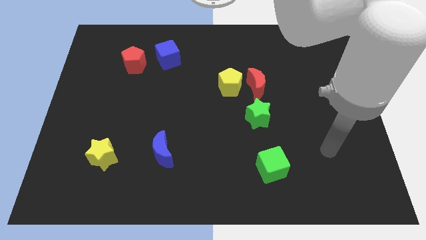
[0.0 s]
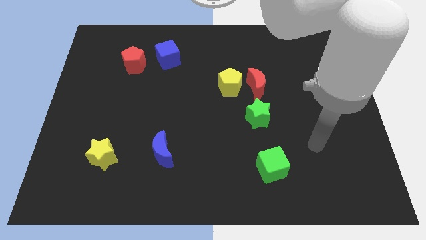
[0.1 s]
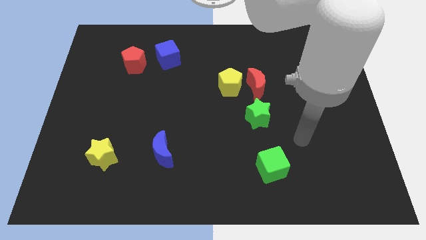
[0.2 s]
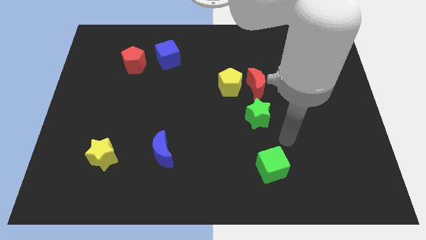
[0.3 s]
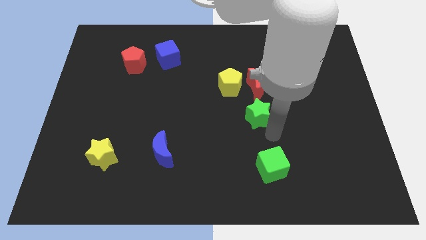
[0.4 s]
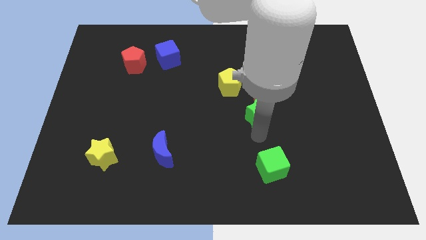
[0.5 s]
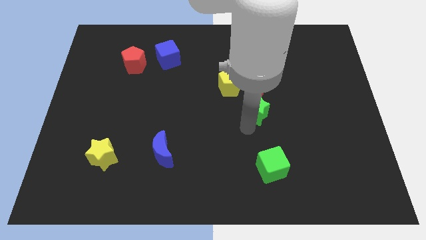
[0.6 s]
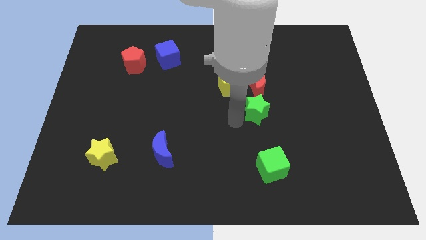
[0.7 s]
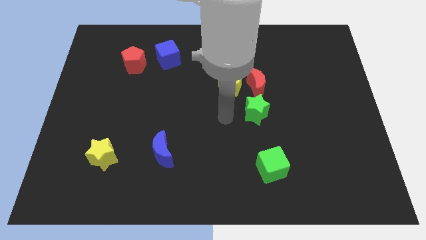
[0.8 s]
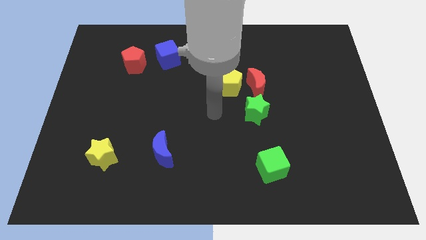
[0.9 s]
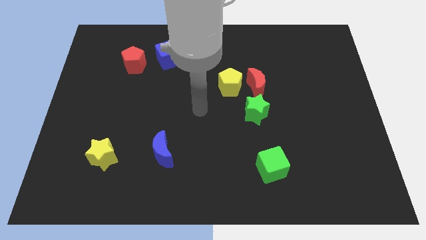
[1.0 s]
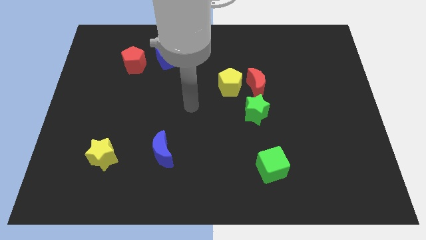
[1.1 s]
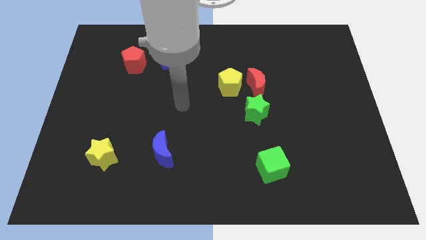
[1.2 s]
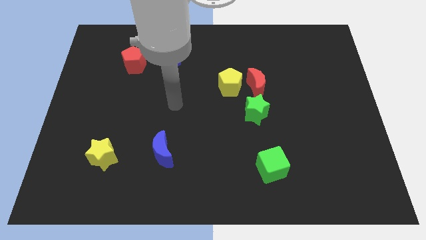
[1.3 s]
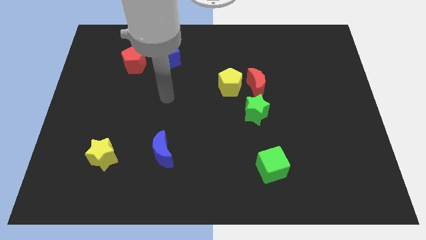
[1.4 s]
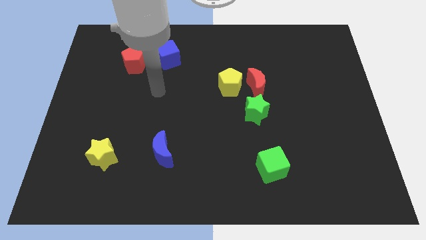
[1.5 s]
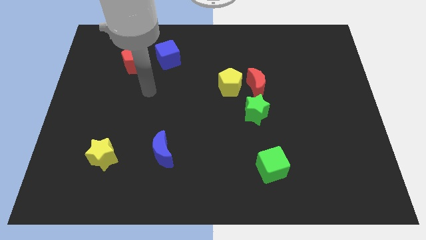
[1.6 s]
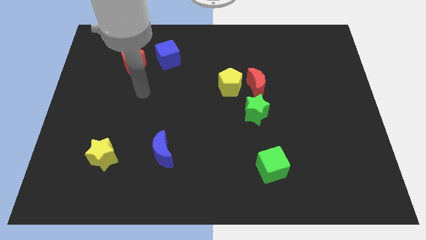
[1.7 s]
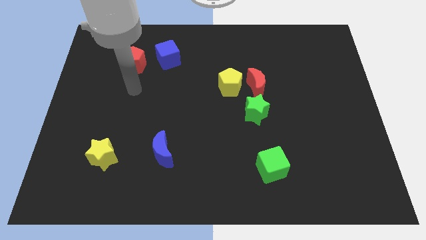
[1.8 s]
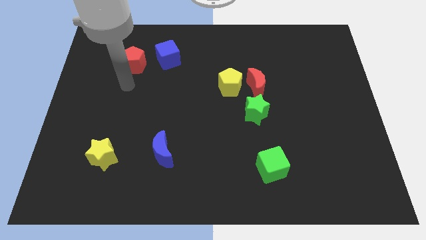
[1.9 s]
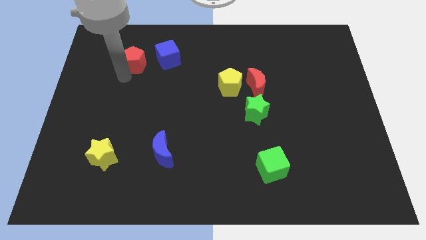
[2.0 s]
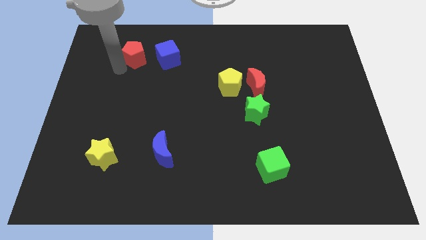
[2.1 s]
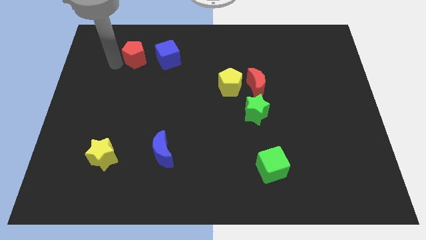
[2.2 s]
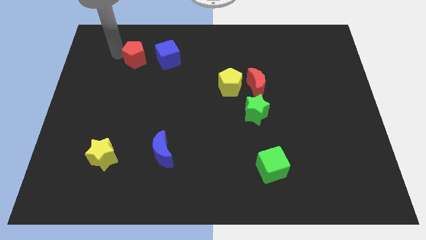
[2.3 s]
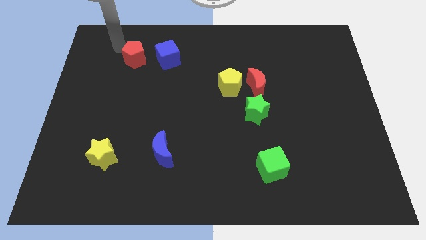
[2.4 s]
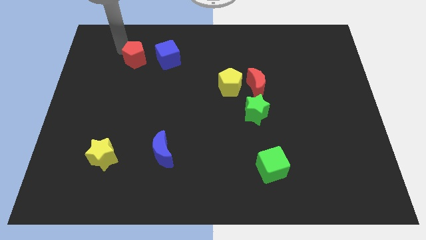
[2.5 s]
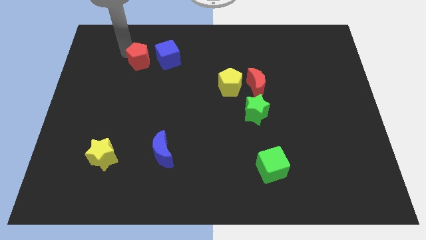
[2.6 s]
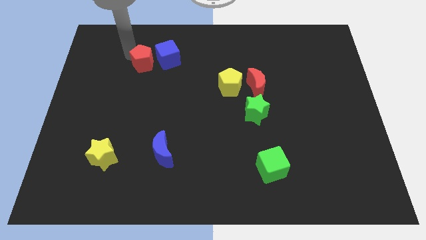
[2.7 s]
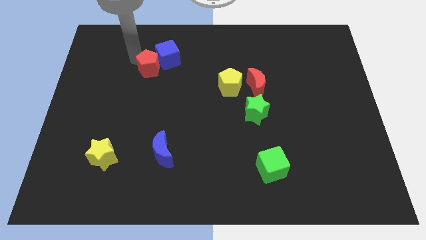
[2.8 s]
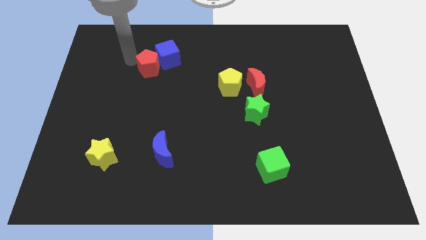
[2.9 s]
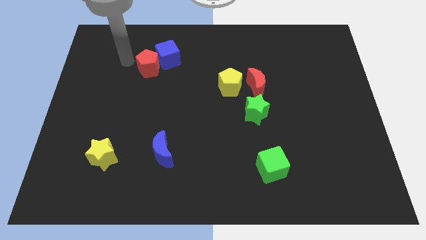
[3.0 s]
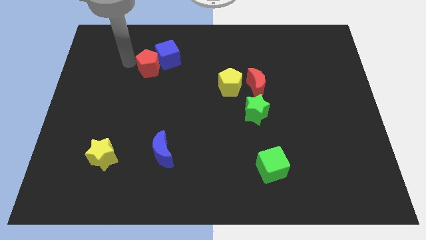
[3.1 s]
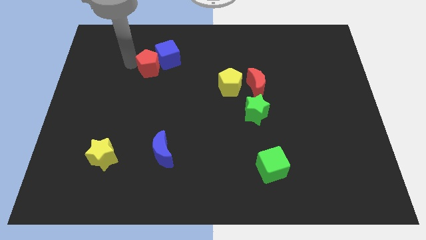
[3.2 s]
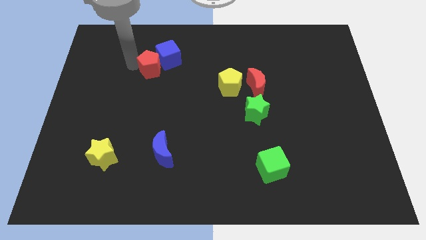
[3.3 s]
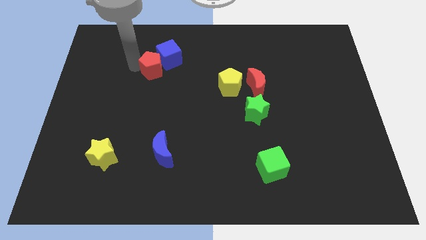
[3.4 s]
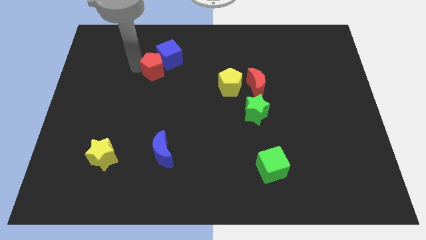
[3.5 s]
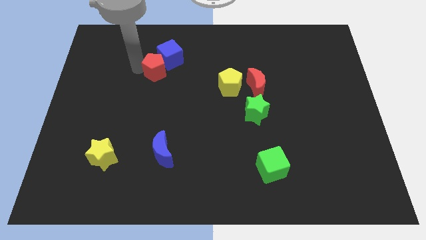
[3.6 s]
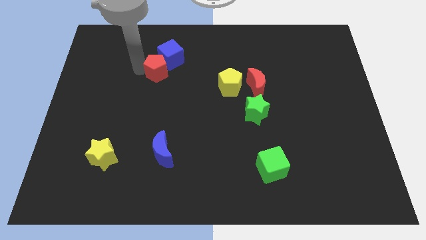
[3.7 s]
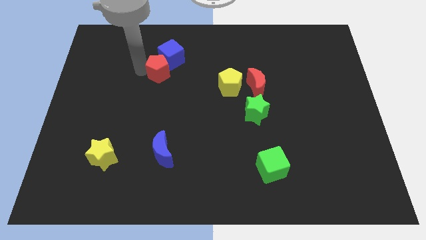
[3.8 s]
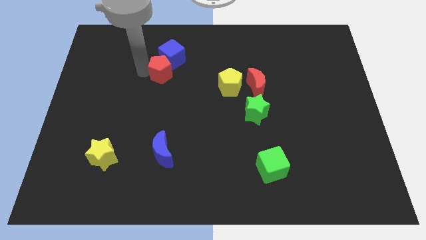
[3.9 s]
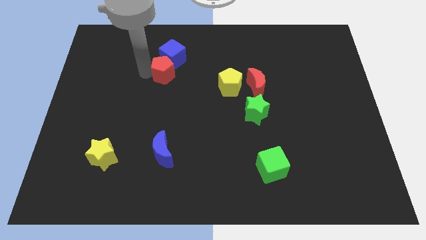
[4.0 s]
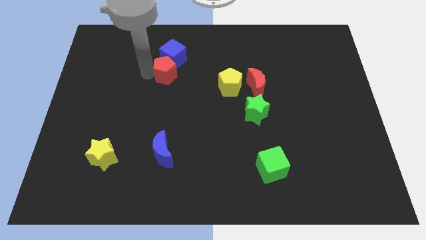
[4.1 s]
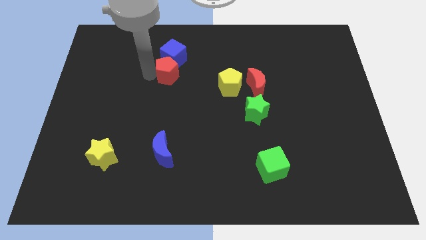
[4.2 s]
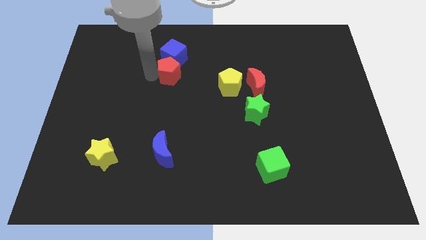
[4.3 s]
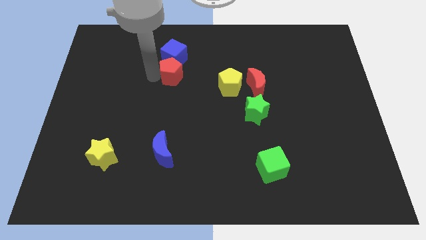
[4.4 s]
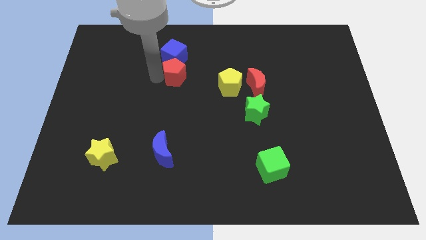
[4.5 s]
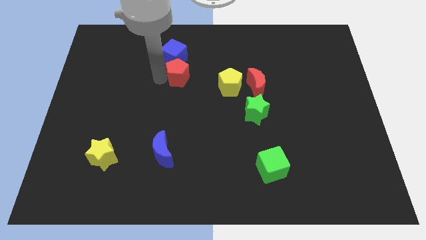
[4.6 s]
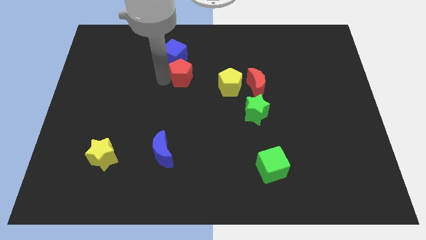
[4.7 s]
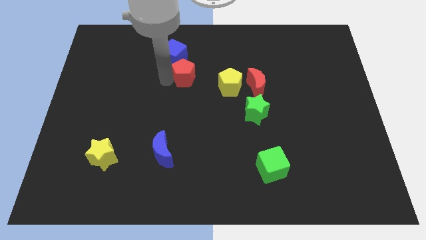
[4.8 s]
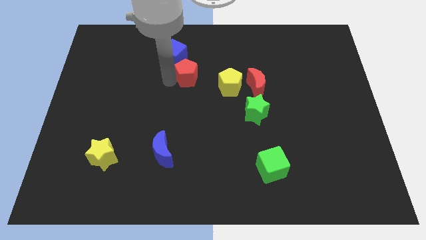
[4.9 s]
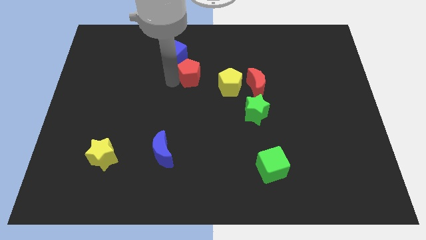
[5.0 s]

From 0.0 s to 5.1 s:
push the red pentagon to the top left of the yellow pentagon

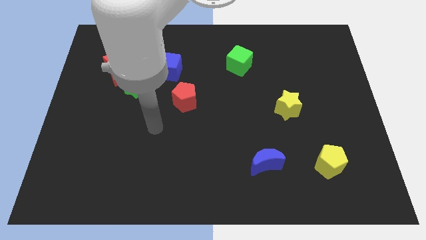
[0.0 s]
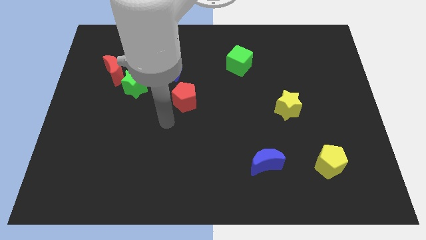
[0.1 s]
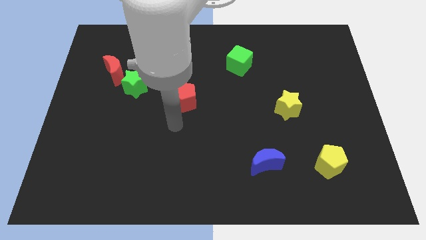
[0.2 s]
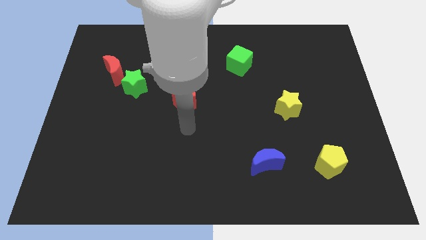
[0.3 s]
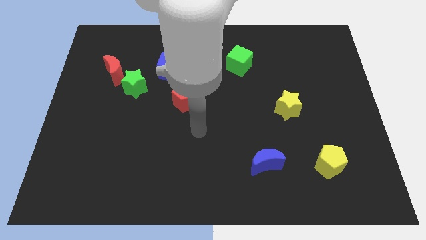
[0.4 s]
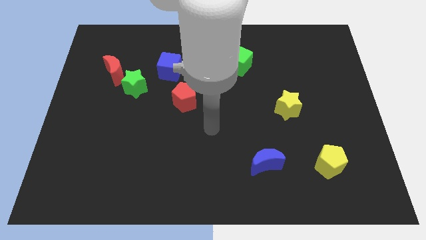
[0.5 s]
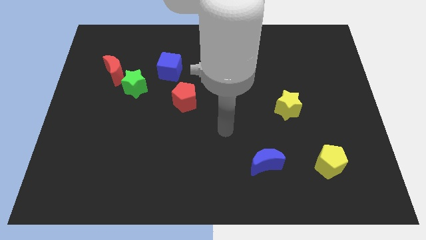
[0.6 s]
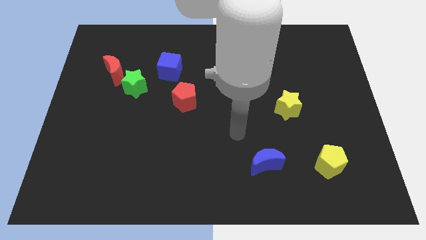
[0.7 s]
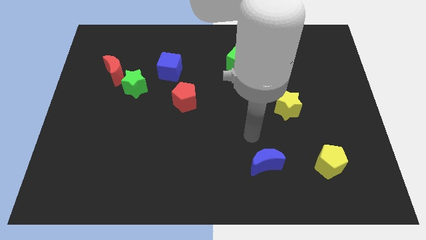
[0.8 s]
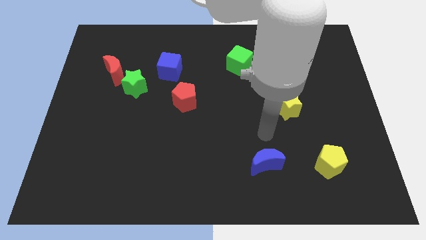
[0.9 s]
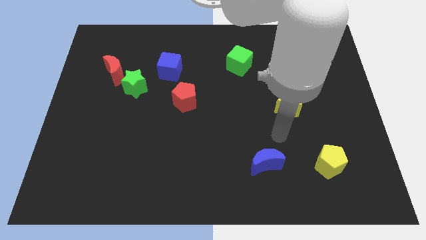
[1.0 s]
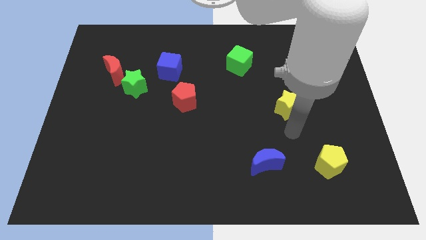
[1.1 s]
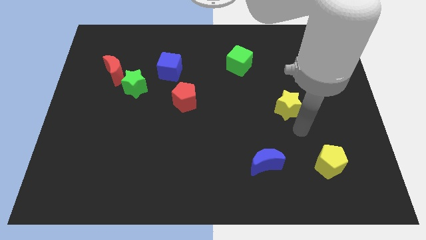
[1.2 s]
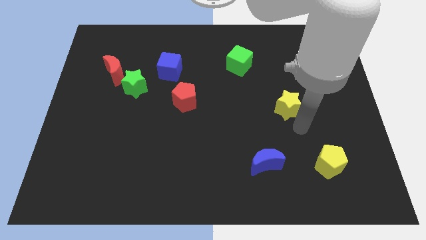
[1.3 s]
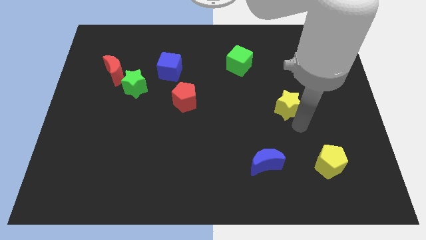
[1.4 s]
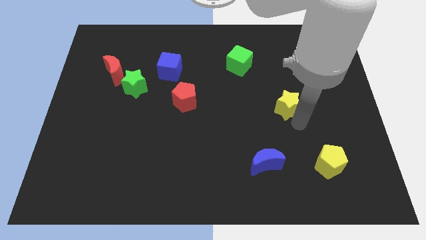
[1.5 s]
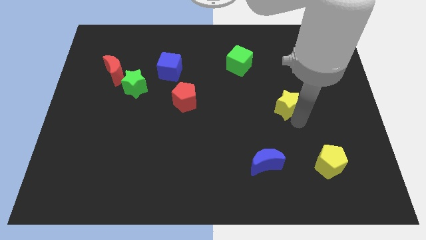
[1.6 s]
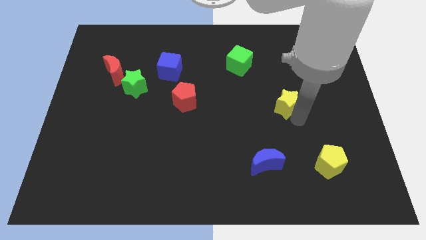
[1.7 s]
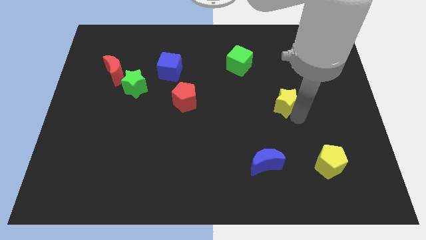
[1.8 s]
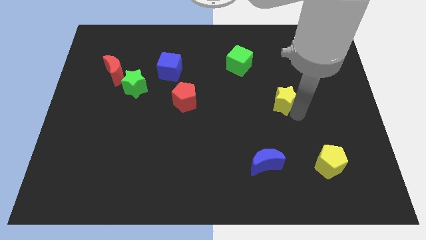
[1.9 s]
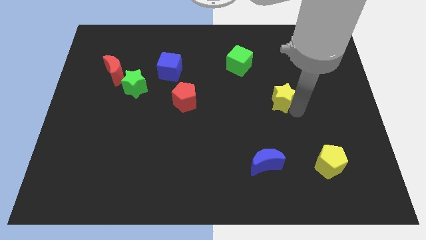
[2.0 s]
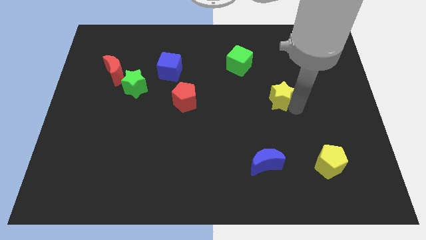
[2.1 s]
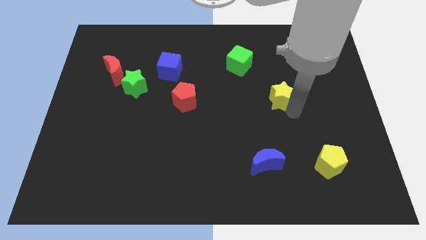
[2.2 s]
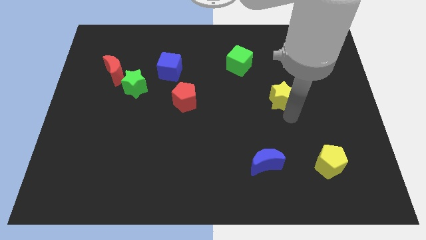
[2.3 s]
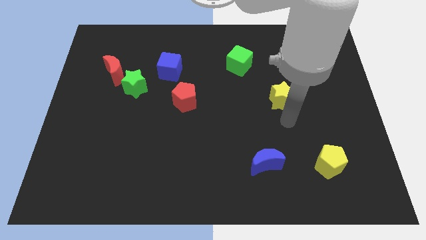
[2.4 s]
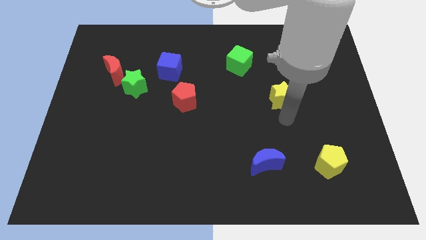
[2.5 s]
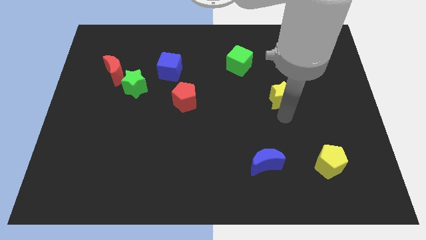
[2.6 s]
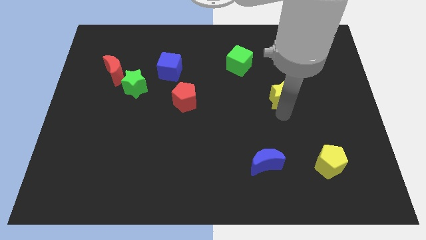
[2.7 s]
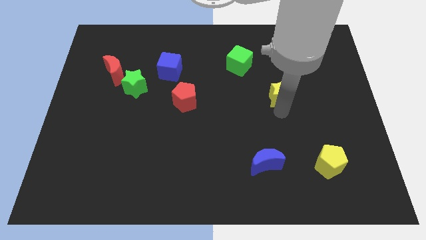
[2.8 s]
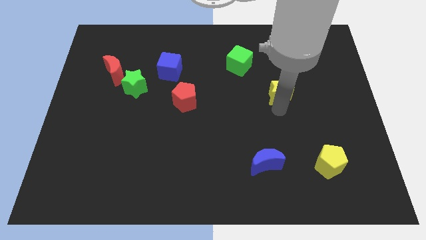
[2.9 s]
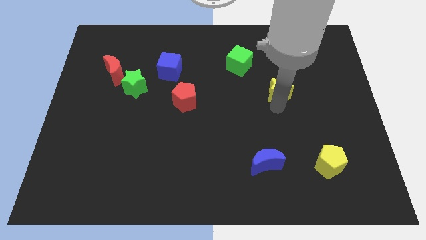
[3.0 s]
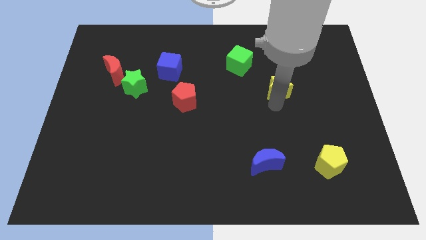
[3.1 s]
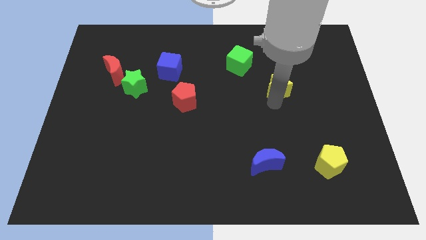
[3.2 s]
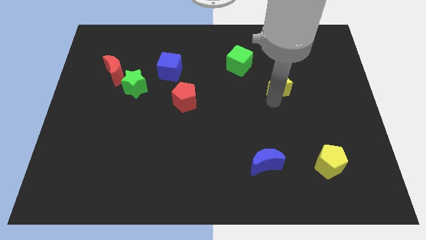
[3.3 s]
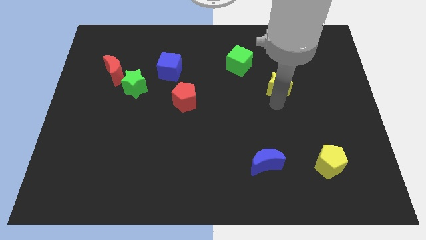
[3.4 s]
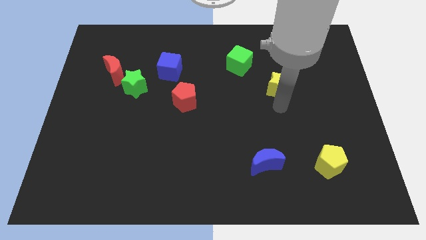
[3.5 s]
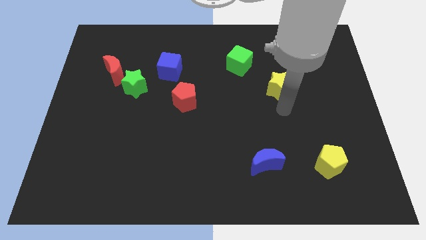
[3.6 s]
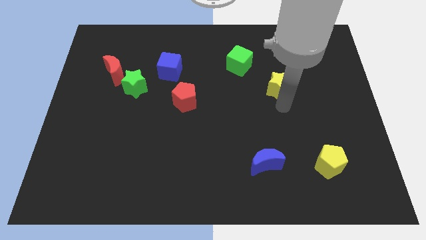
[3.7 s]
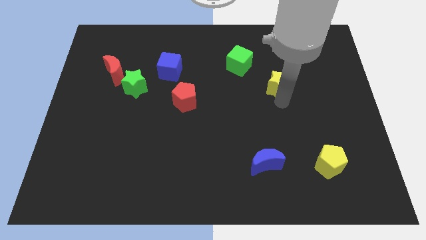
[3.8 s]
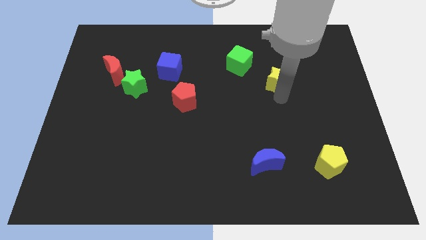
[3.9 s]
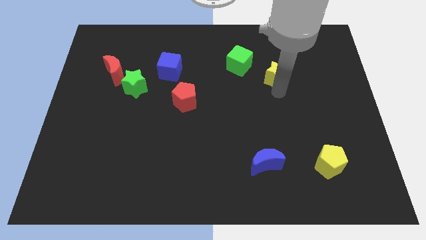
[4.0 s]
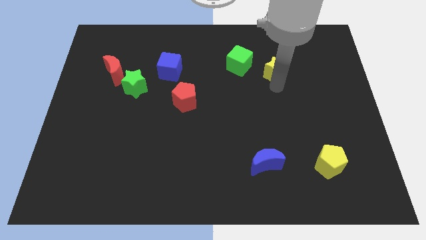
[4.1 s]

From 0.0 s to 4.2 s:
slide the yellow star right of the green cube
